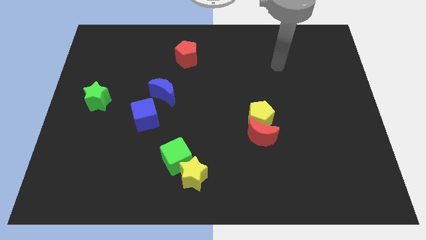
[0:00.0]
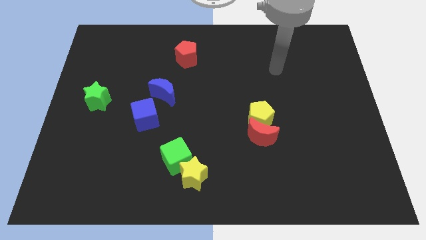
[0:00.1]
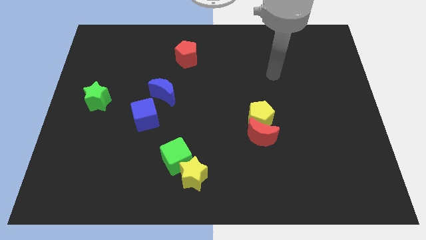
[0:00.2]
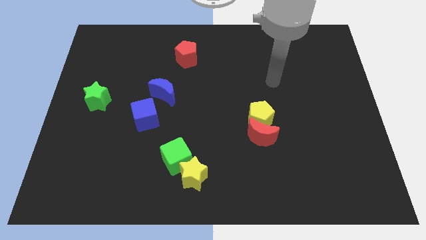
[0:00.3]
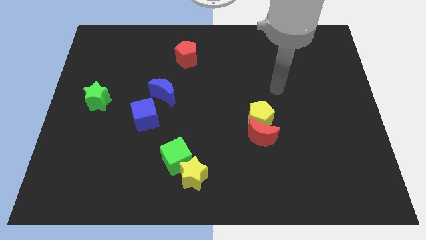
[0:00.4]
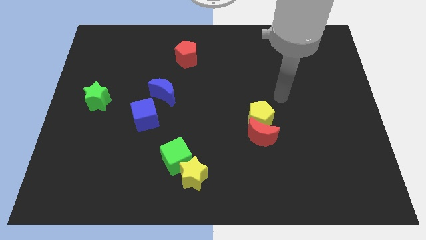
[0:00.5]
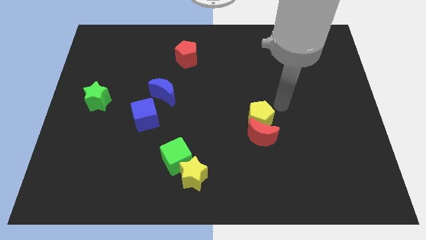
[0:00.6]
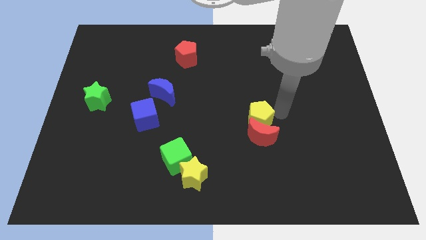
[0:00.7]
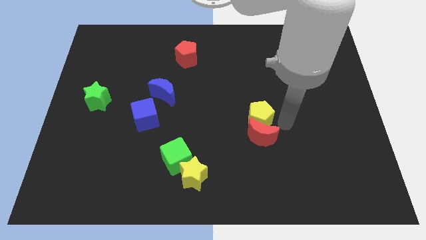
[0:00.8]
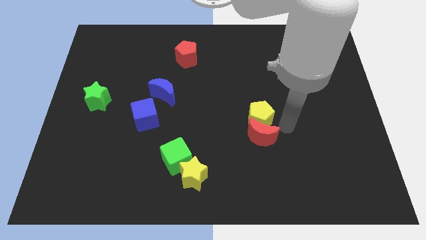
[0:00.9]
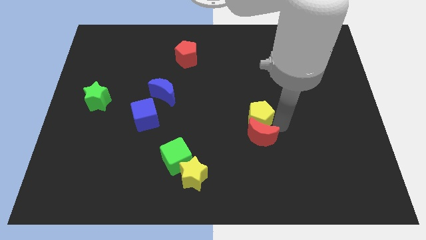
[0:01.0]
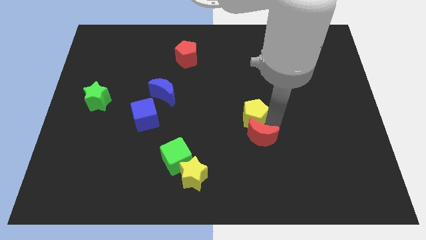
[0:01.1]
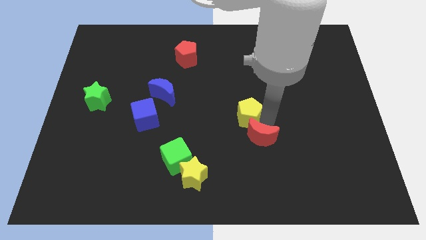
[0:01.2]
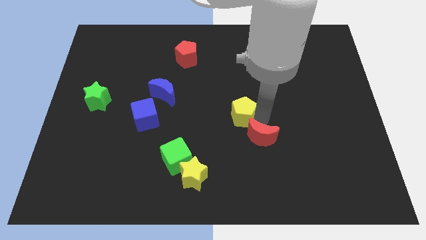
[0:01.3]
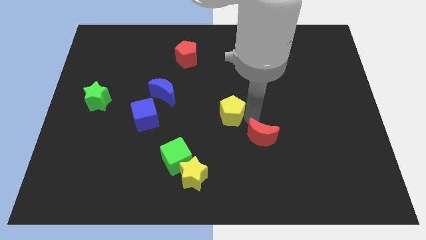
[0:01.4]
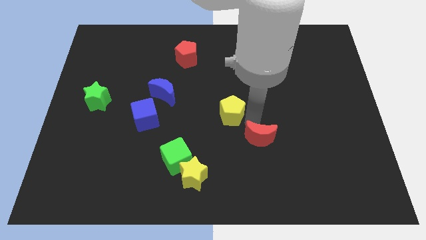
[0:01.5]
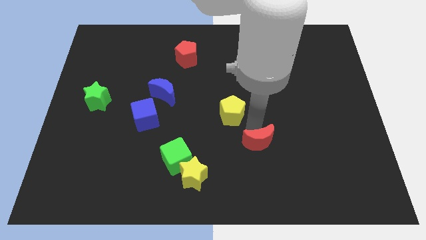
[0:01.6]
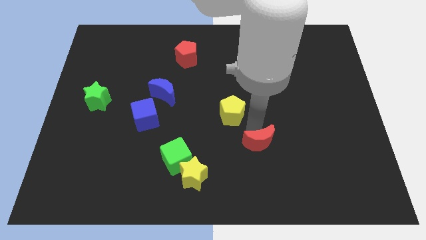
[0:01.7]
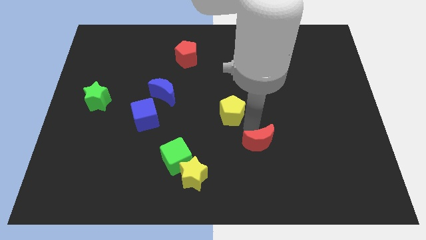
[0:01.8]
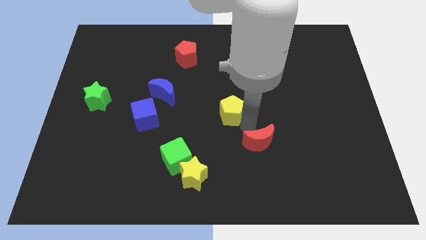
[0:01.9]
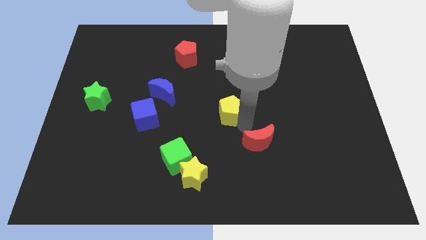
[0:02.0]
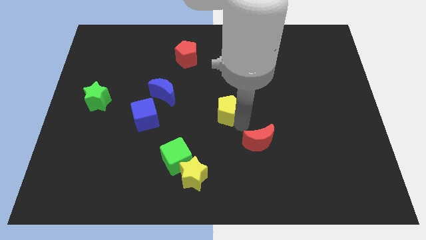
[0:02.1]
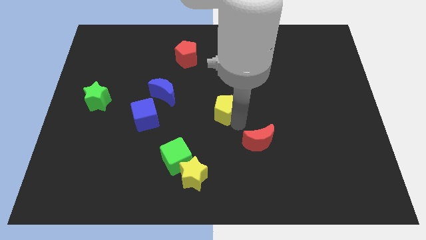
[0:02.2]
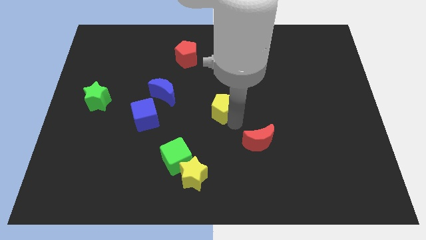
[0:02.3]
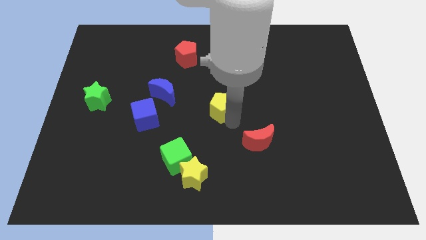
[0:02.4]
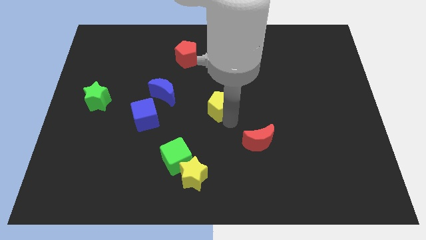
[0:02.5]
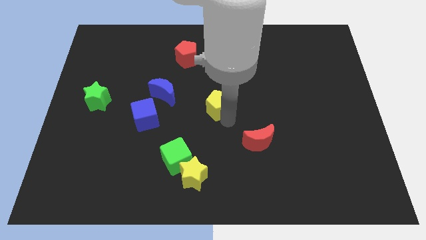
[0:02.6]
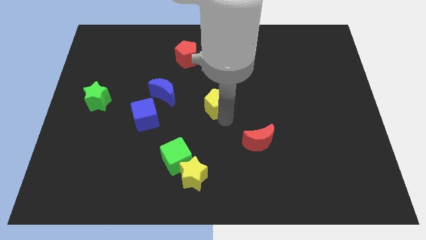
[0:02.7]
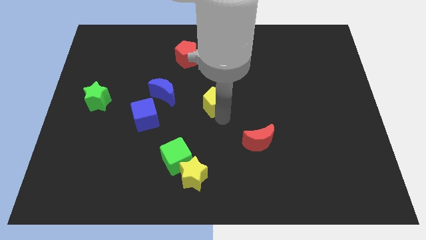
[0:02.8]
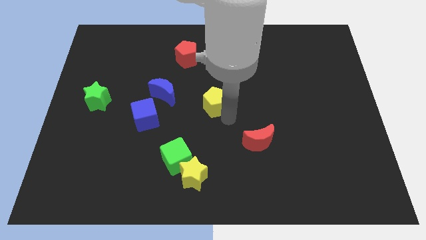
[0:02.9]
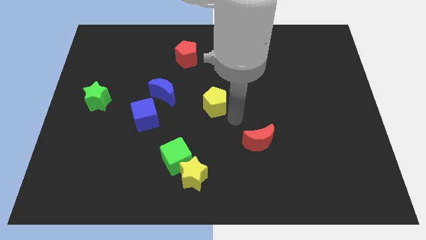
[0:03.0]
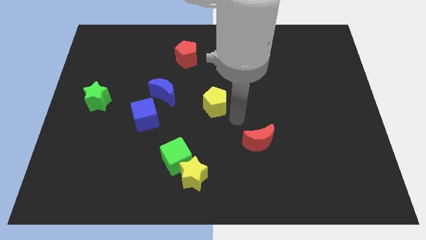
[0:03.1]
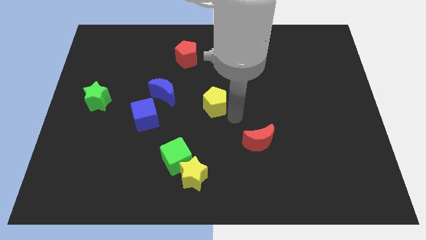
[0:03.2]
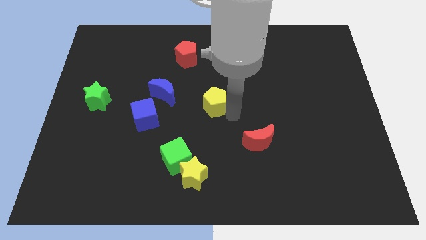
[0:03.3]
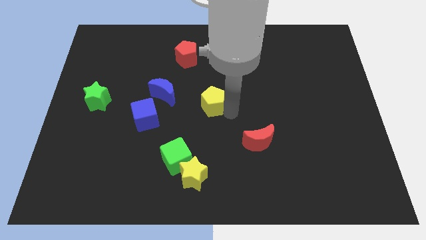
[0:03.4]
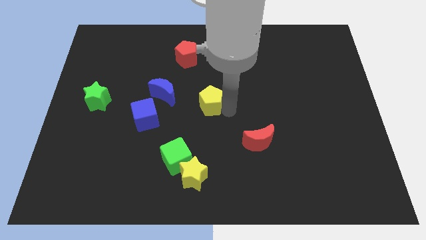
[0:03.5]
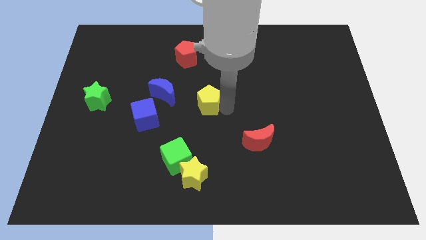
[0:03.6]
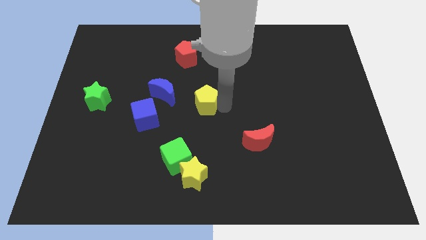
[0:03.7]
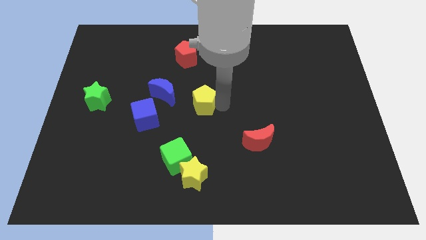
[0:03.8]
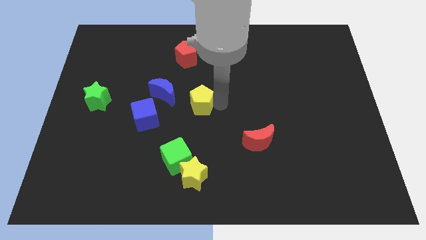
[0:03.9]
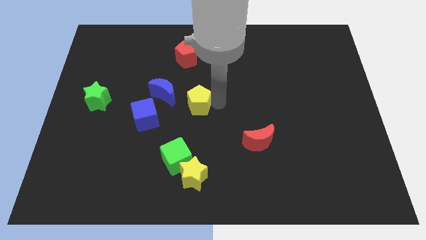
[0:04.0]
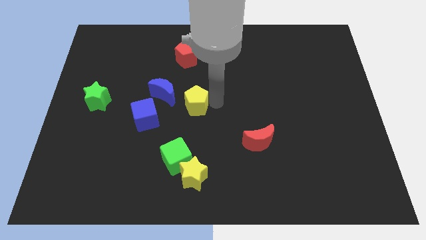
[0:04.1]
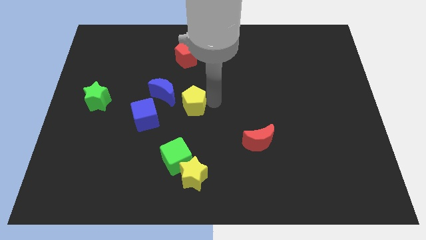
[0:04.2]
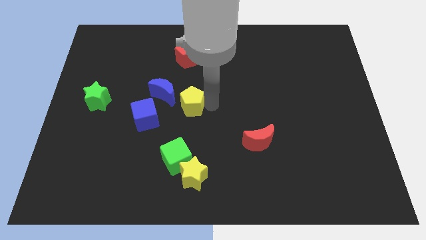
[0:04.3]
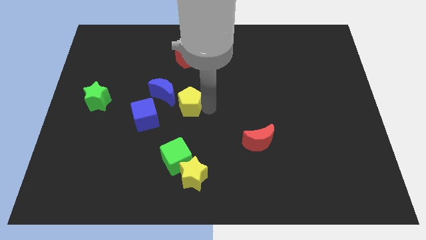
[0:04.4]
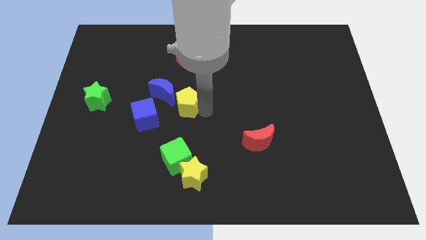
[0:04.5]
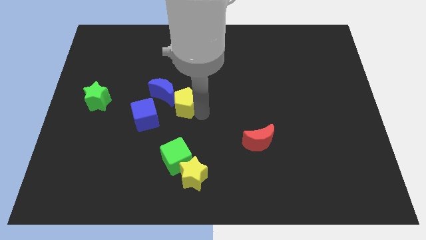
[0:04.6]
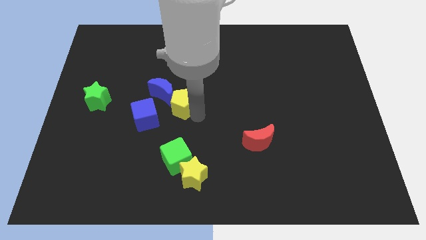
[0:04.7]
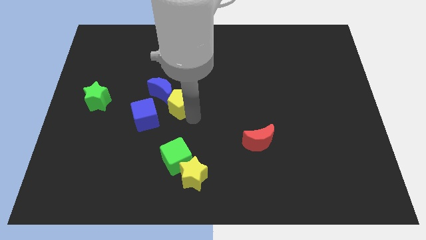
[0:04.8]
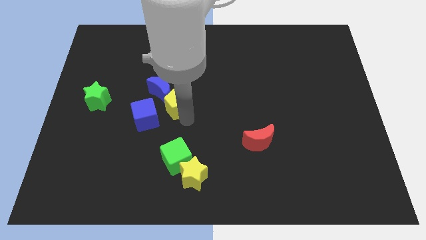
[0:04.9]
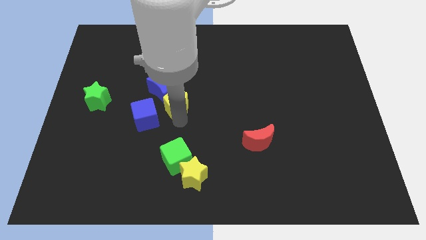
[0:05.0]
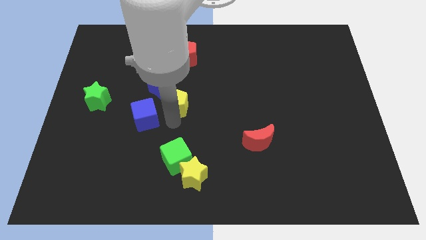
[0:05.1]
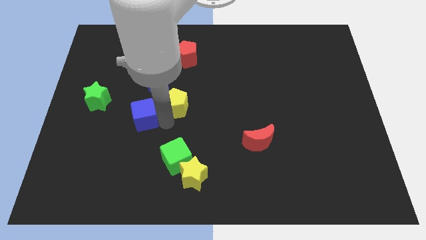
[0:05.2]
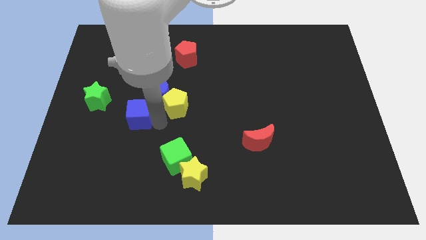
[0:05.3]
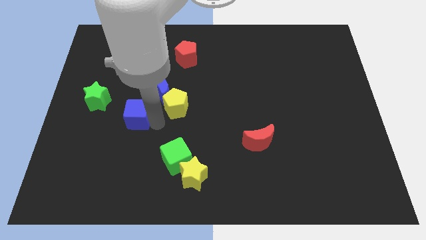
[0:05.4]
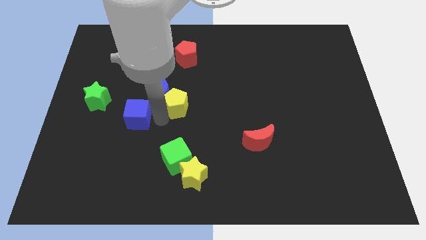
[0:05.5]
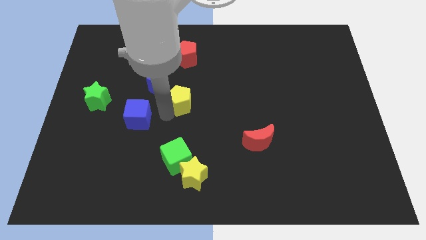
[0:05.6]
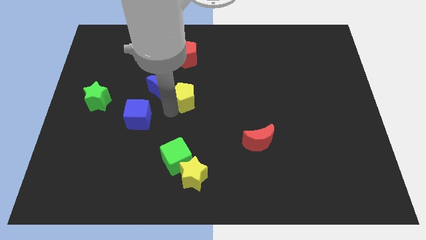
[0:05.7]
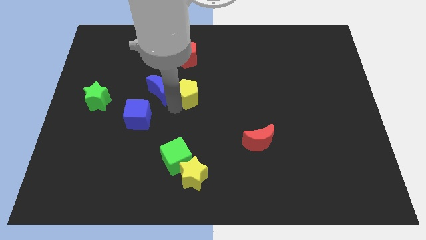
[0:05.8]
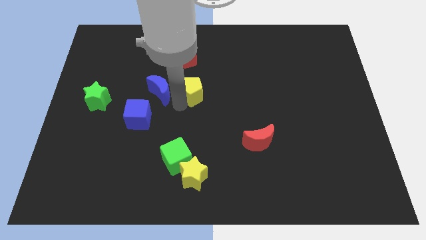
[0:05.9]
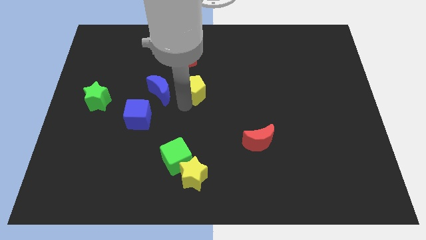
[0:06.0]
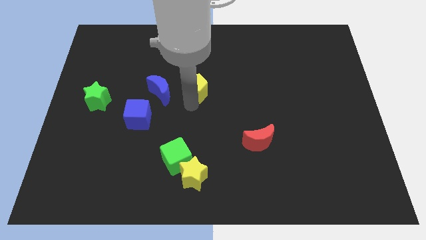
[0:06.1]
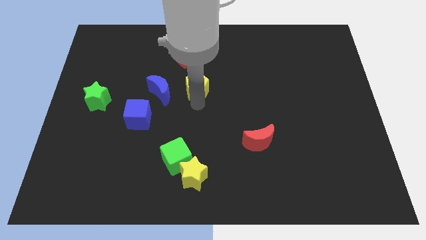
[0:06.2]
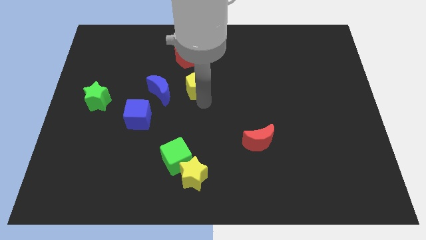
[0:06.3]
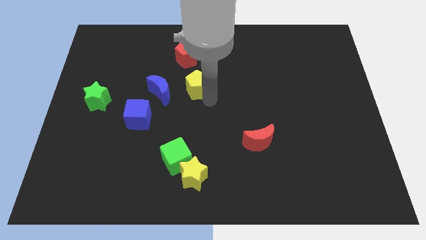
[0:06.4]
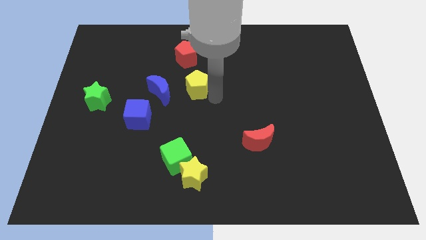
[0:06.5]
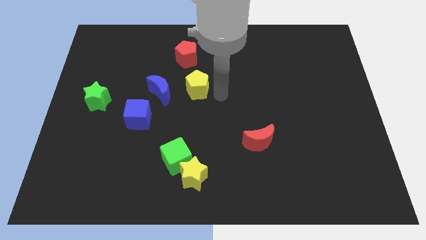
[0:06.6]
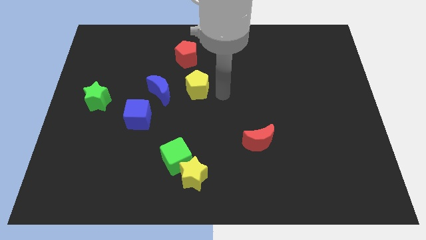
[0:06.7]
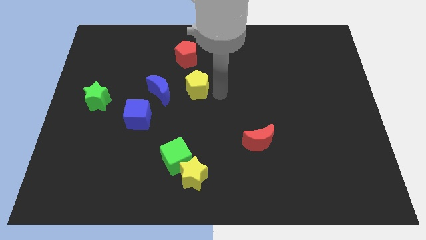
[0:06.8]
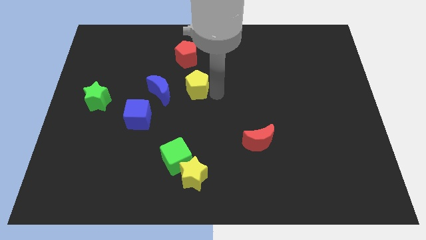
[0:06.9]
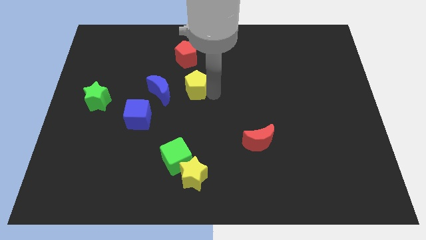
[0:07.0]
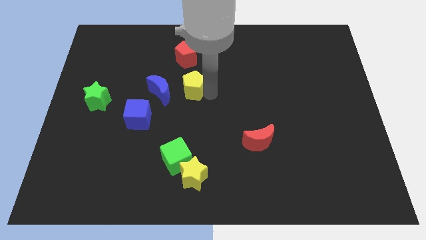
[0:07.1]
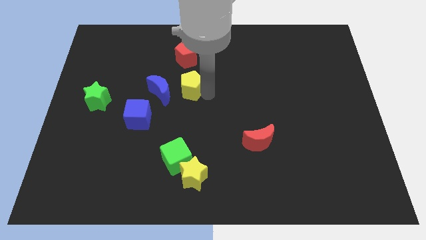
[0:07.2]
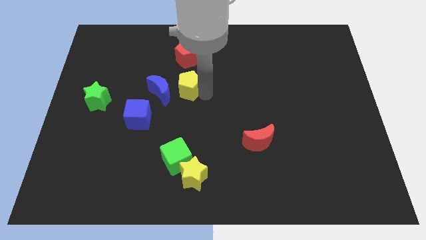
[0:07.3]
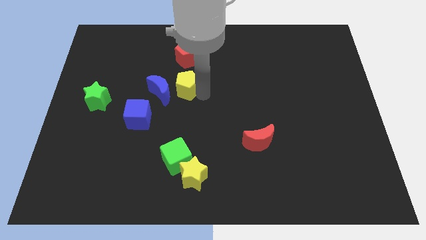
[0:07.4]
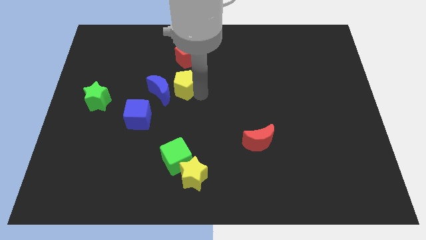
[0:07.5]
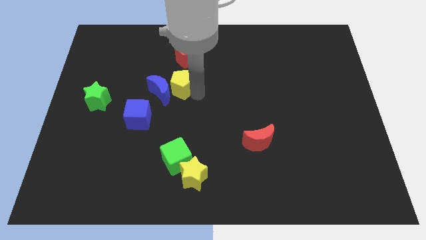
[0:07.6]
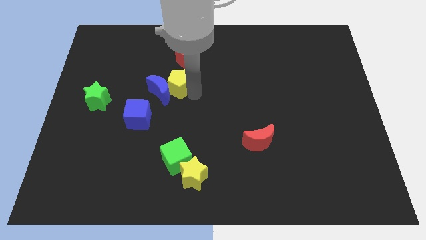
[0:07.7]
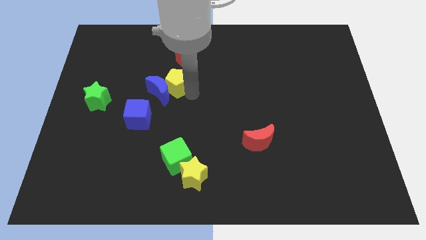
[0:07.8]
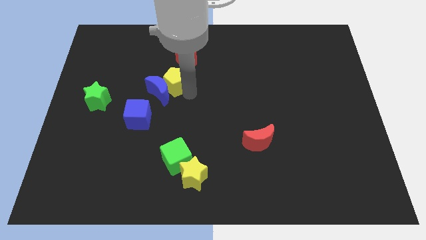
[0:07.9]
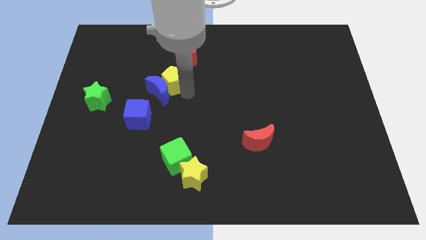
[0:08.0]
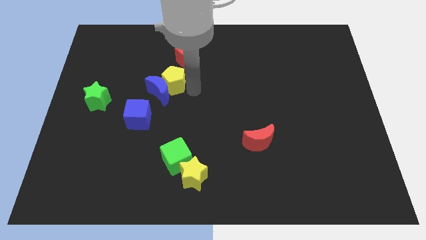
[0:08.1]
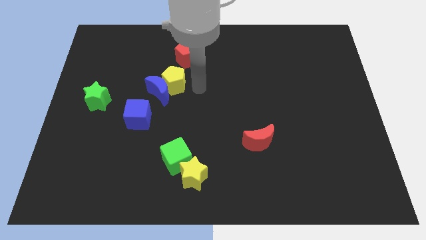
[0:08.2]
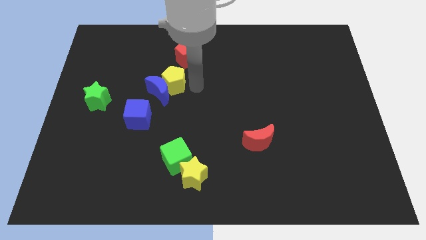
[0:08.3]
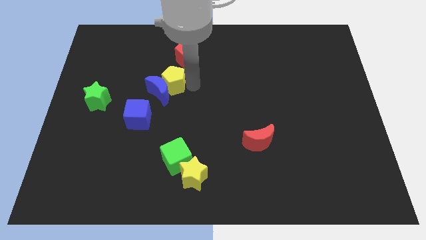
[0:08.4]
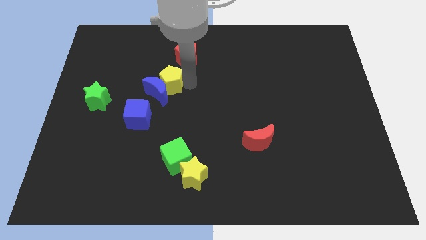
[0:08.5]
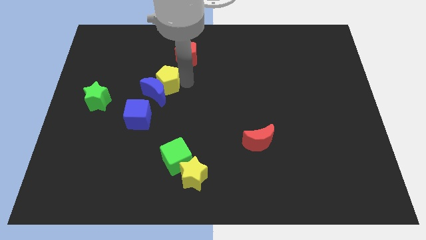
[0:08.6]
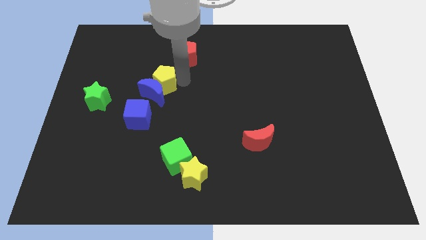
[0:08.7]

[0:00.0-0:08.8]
push the yellow pentagon to the top left of the blue moon
